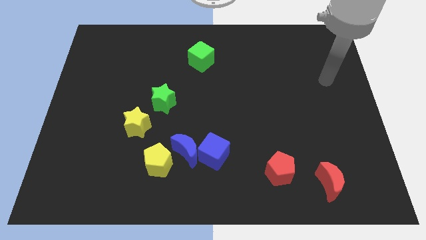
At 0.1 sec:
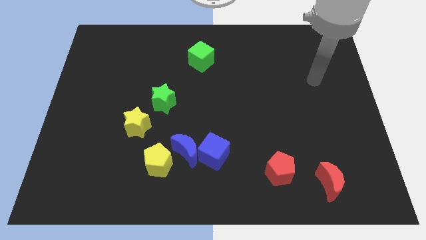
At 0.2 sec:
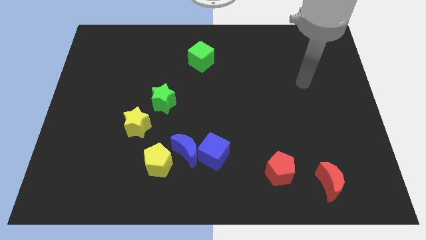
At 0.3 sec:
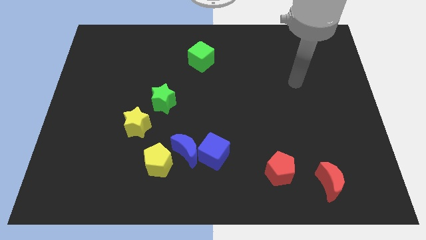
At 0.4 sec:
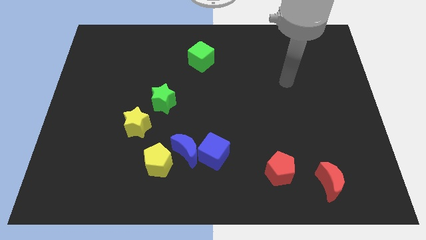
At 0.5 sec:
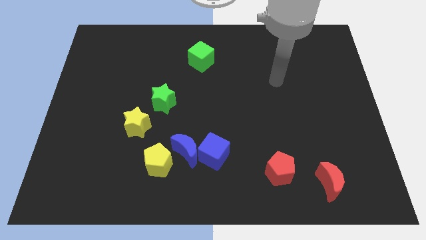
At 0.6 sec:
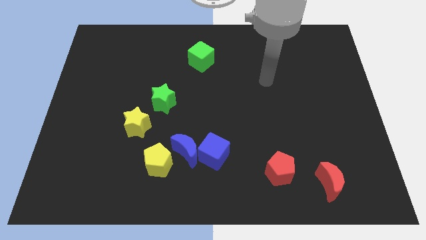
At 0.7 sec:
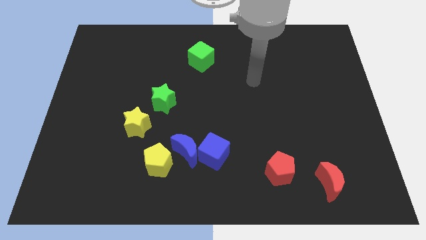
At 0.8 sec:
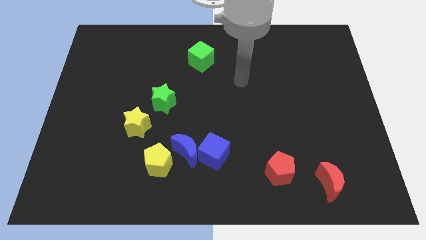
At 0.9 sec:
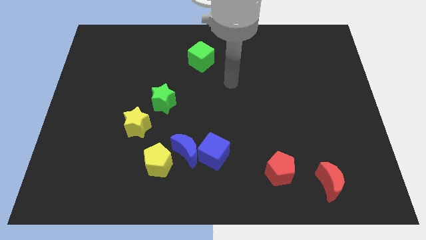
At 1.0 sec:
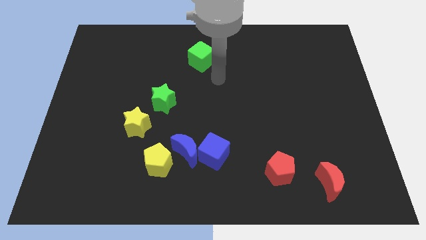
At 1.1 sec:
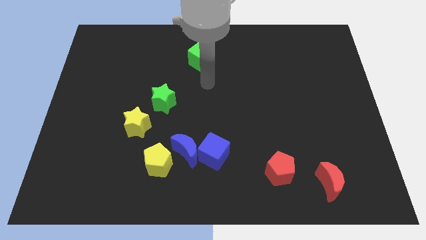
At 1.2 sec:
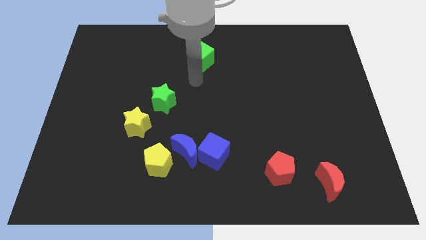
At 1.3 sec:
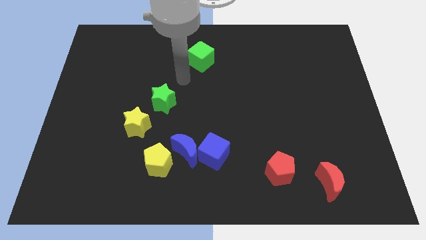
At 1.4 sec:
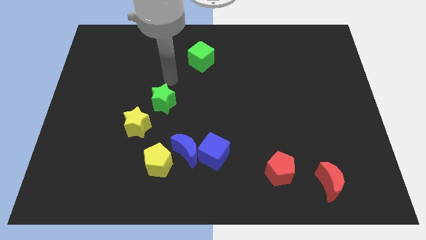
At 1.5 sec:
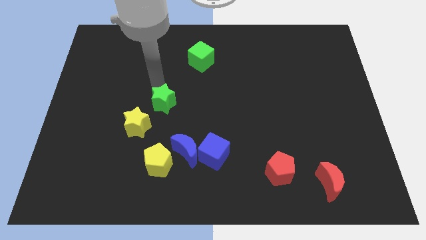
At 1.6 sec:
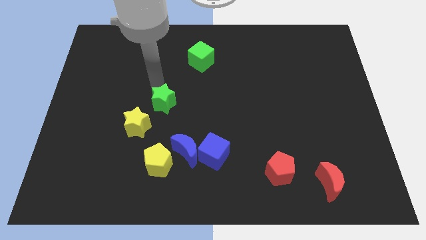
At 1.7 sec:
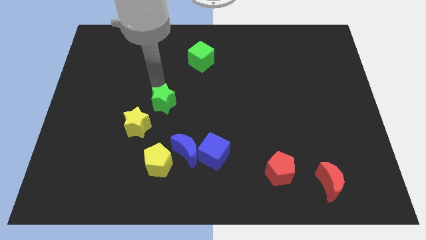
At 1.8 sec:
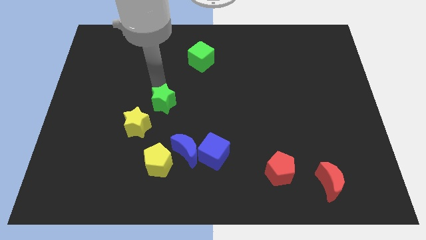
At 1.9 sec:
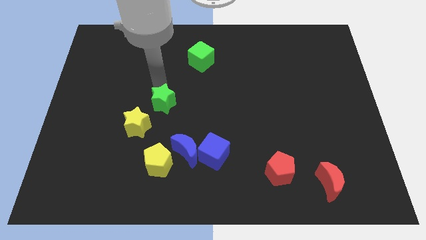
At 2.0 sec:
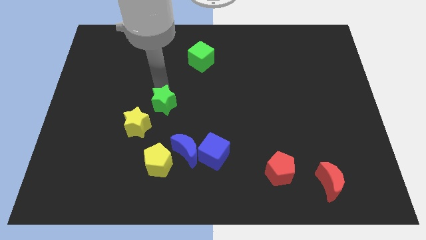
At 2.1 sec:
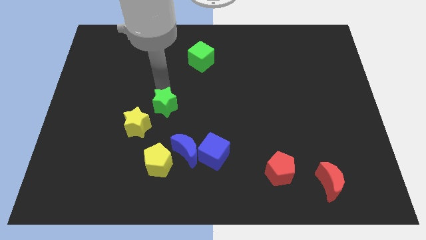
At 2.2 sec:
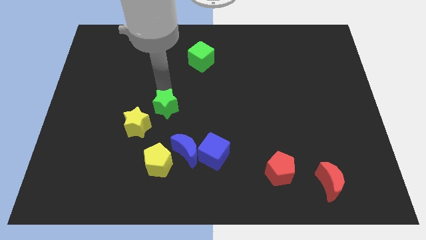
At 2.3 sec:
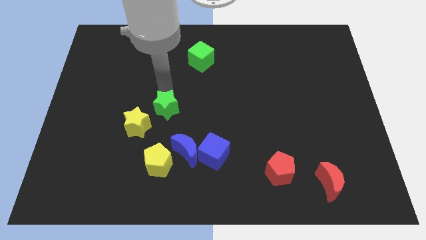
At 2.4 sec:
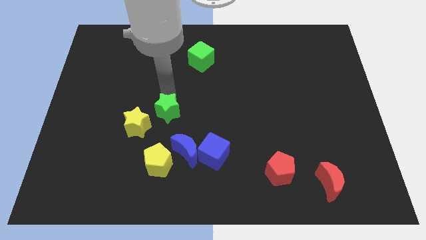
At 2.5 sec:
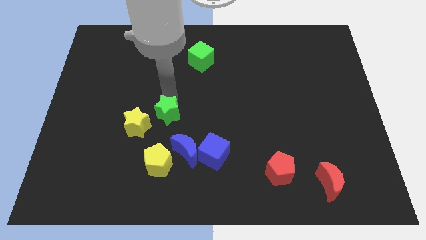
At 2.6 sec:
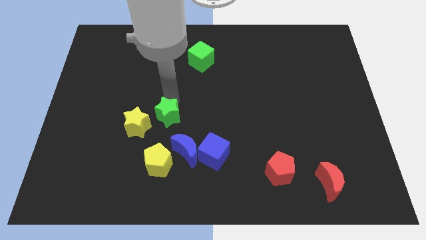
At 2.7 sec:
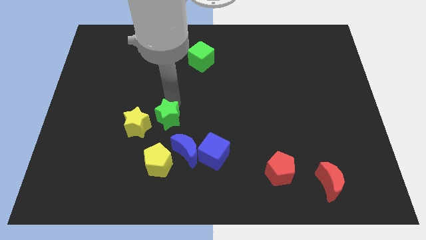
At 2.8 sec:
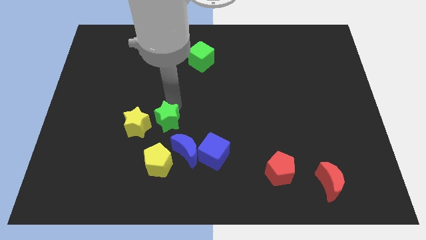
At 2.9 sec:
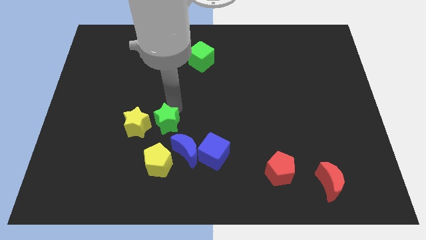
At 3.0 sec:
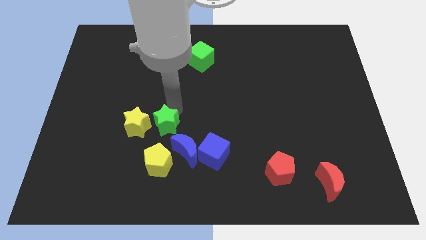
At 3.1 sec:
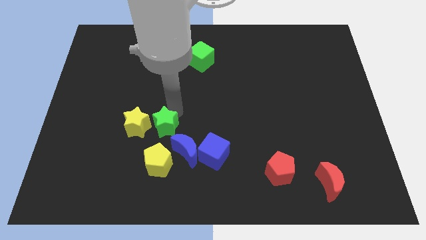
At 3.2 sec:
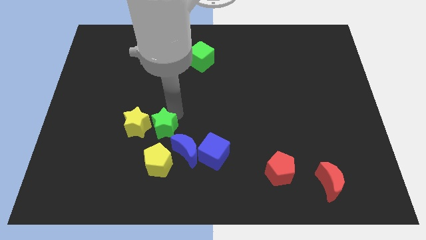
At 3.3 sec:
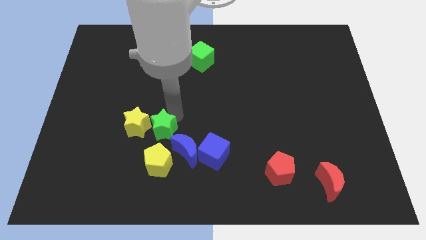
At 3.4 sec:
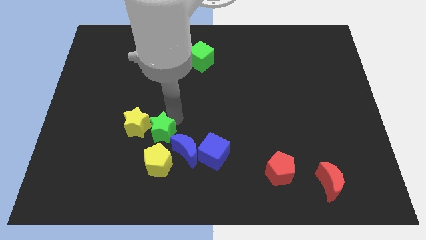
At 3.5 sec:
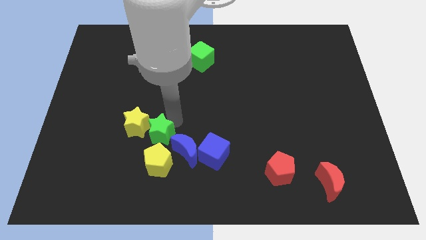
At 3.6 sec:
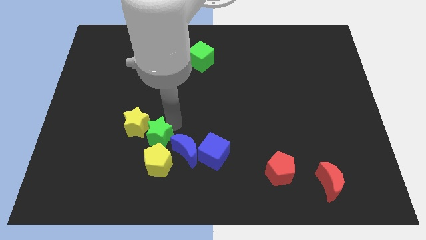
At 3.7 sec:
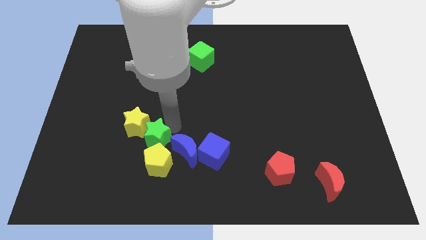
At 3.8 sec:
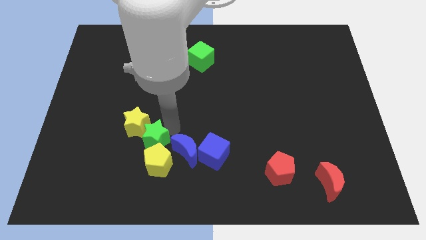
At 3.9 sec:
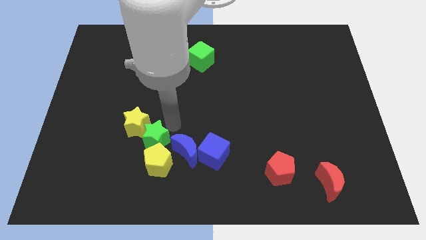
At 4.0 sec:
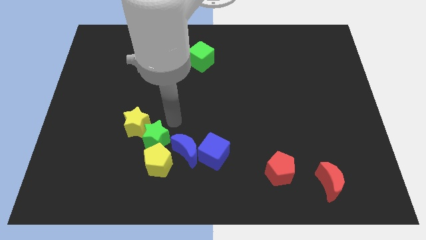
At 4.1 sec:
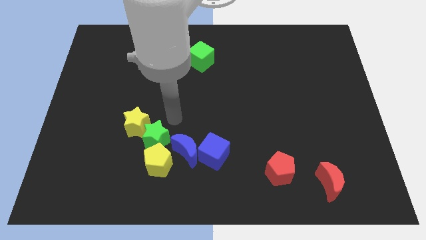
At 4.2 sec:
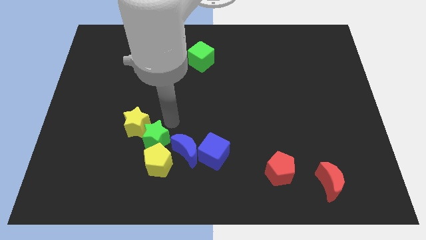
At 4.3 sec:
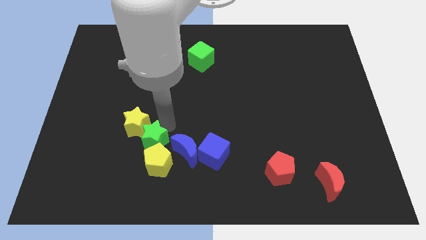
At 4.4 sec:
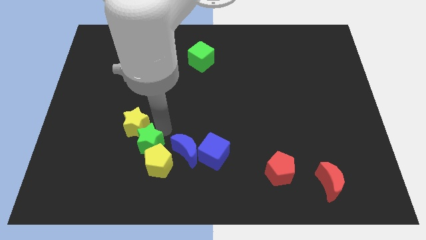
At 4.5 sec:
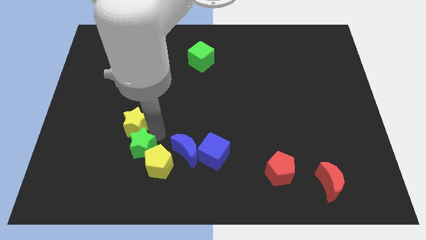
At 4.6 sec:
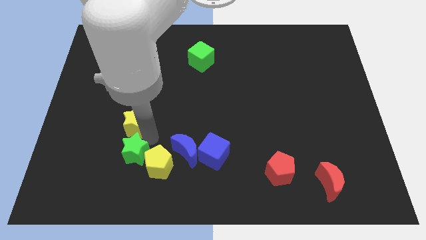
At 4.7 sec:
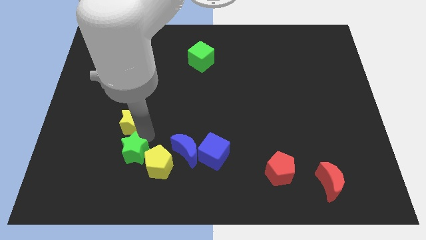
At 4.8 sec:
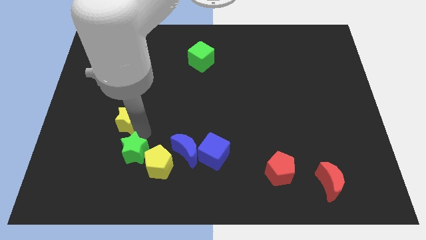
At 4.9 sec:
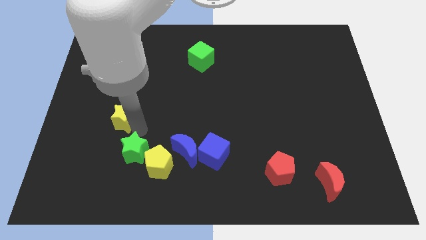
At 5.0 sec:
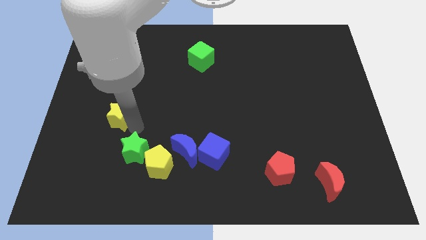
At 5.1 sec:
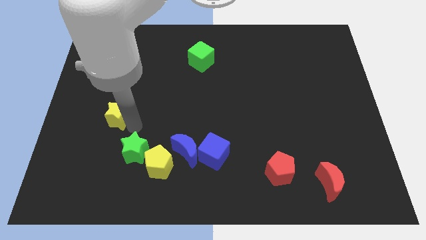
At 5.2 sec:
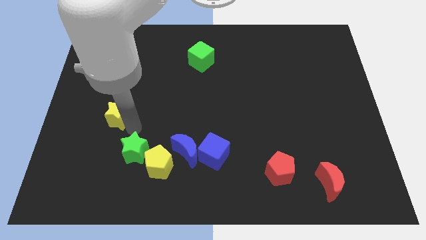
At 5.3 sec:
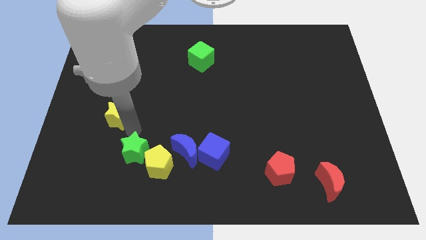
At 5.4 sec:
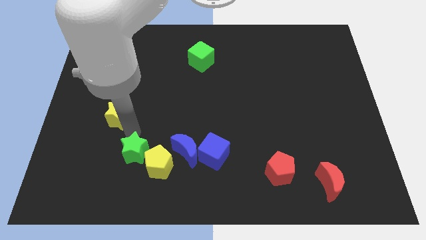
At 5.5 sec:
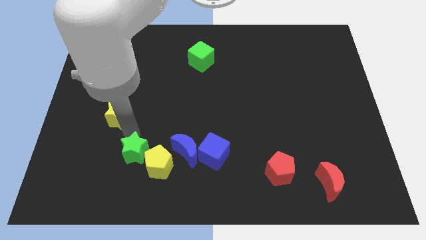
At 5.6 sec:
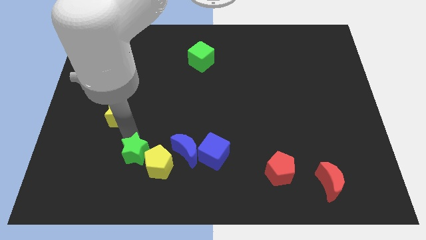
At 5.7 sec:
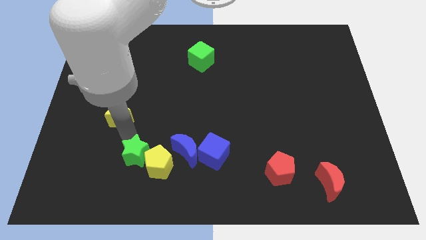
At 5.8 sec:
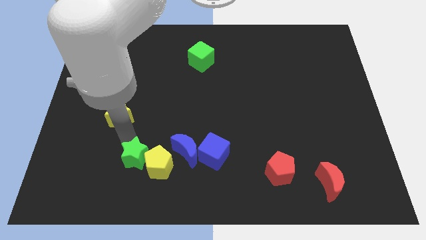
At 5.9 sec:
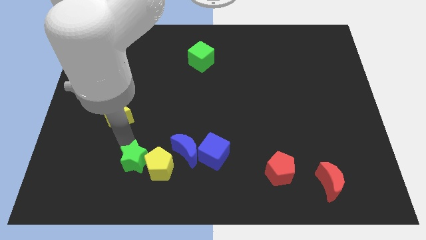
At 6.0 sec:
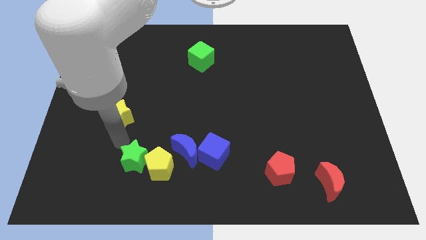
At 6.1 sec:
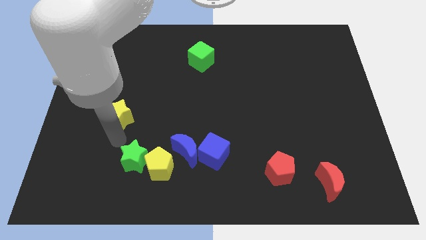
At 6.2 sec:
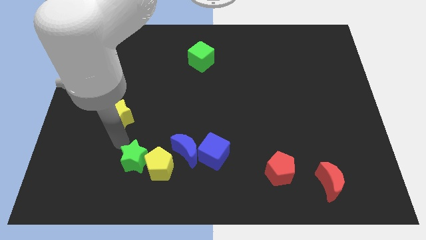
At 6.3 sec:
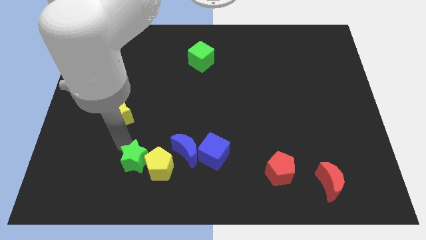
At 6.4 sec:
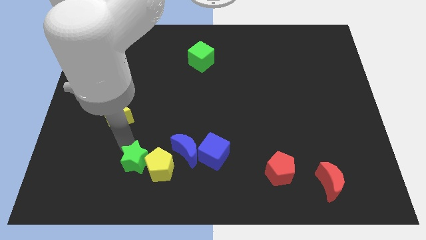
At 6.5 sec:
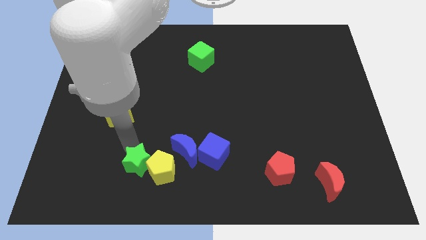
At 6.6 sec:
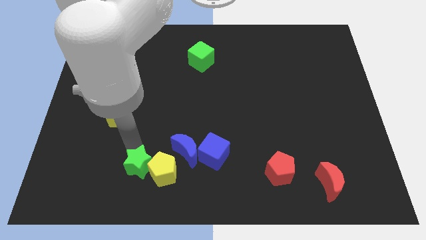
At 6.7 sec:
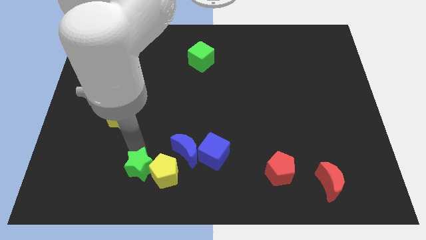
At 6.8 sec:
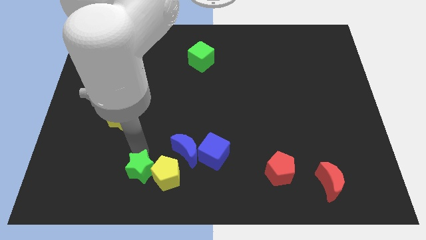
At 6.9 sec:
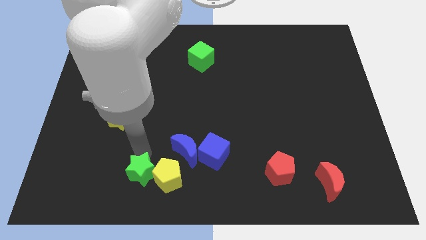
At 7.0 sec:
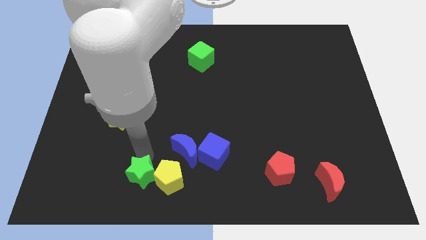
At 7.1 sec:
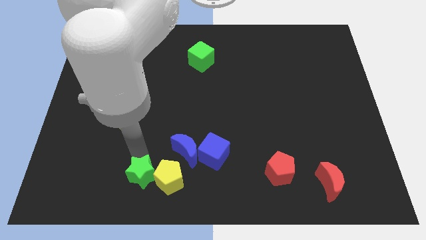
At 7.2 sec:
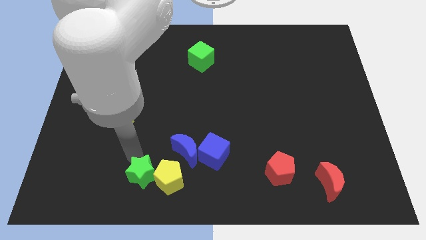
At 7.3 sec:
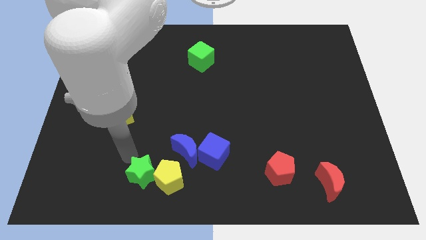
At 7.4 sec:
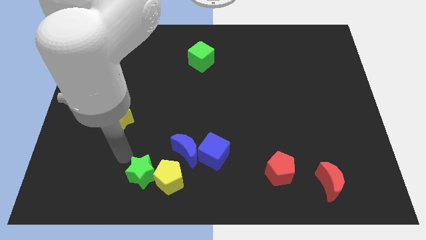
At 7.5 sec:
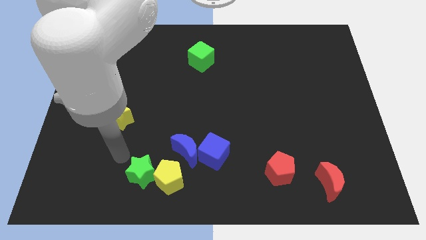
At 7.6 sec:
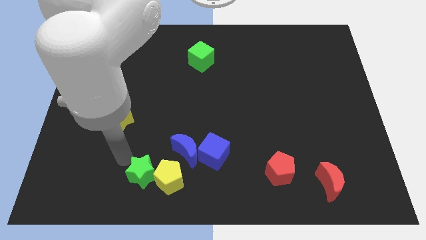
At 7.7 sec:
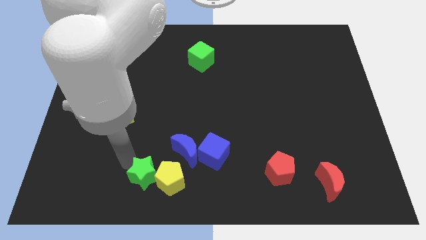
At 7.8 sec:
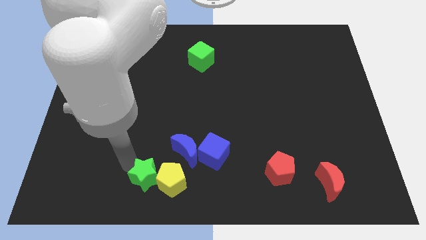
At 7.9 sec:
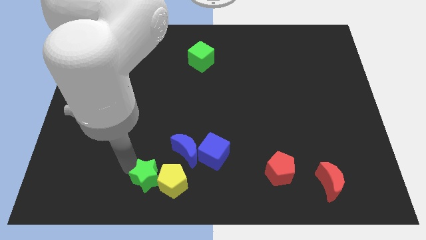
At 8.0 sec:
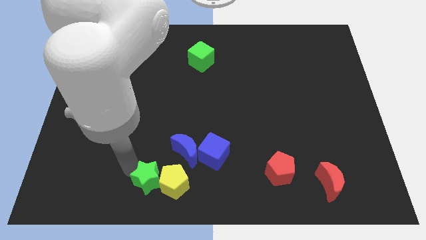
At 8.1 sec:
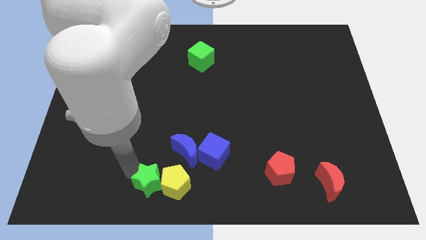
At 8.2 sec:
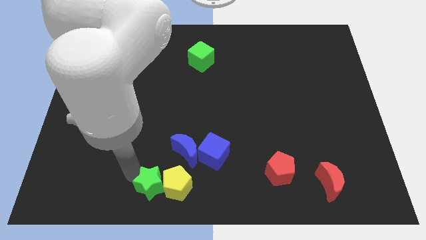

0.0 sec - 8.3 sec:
slide the green star to the bottom side
